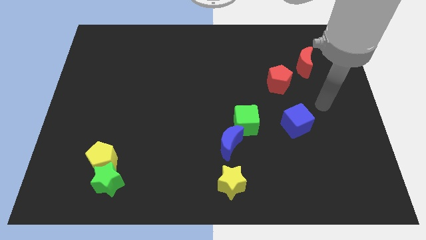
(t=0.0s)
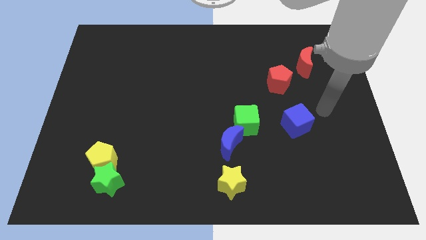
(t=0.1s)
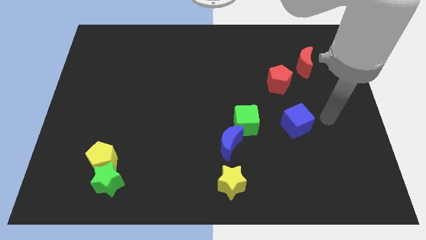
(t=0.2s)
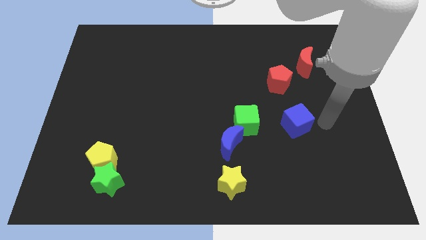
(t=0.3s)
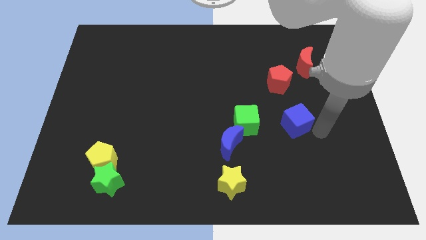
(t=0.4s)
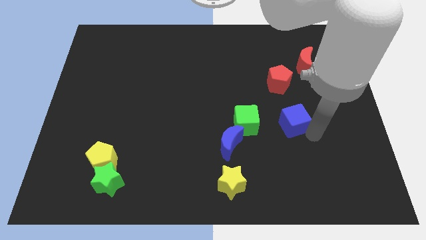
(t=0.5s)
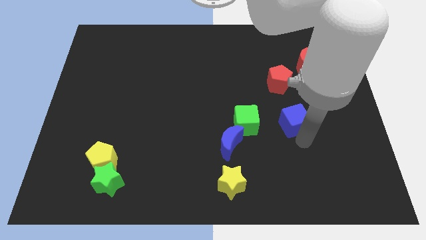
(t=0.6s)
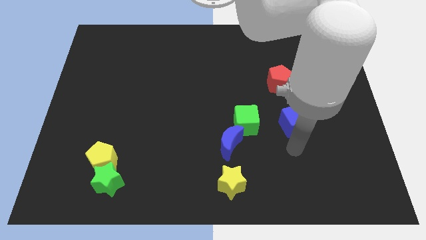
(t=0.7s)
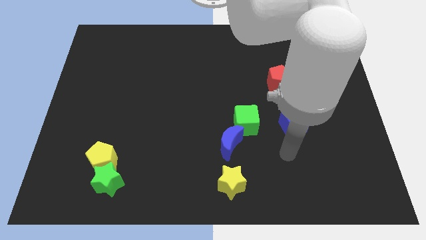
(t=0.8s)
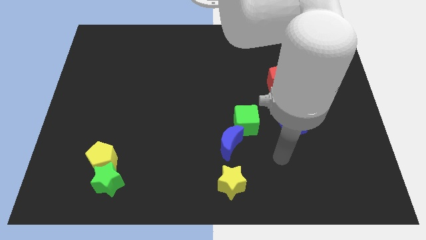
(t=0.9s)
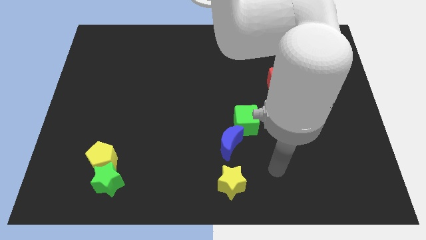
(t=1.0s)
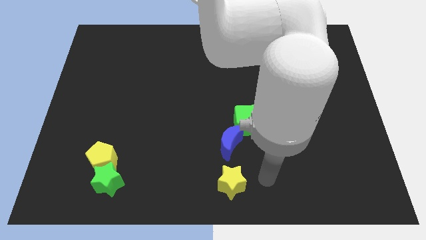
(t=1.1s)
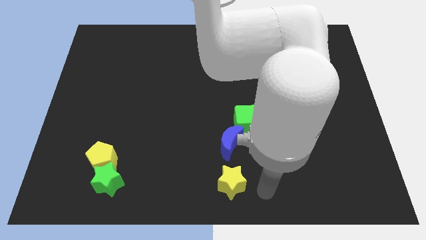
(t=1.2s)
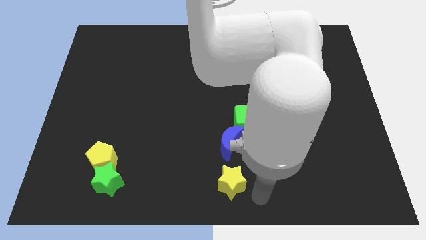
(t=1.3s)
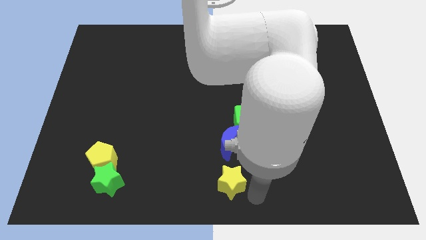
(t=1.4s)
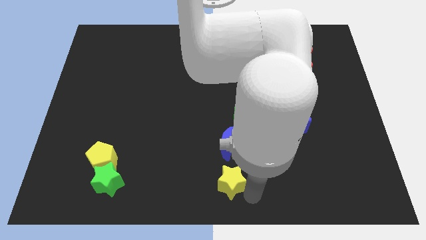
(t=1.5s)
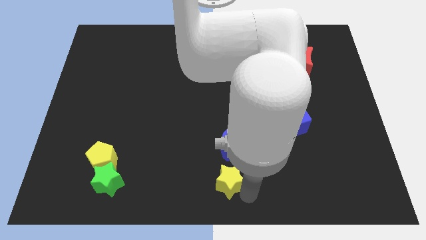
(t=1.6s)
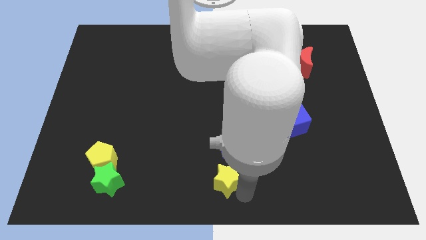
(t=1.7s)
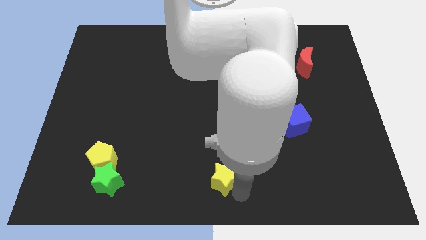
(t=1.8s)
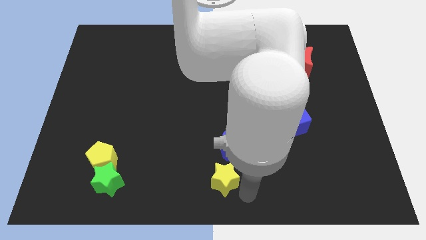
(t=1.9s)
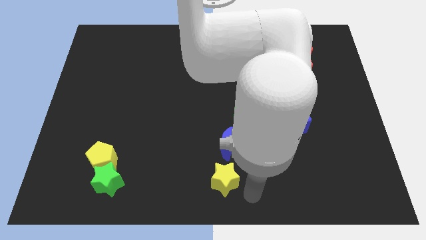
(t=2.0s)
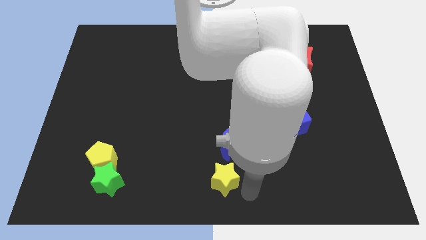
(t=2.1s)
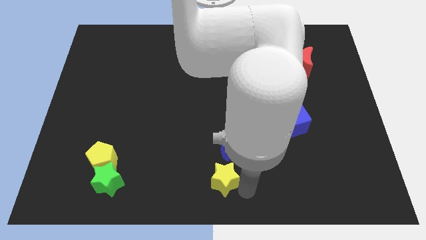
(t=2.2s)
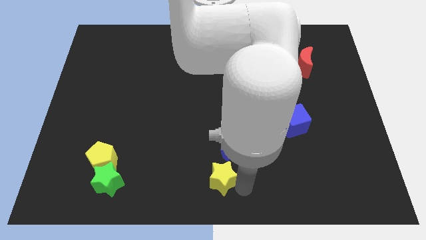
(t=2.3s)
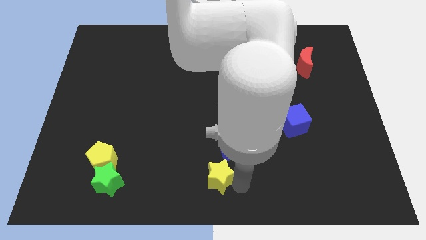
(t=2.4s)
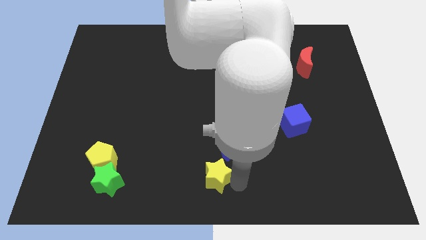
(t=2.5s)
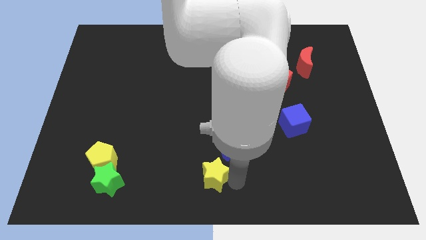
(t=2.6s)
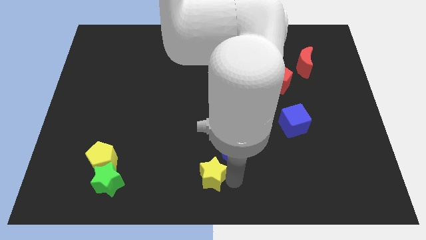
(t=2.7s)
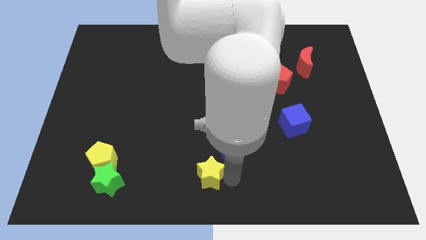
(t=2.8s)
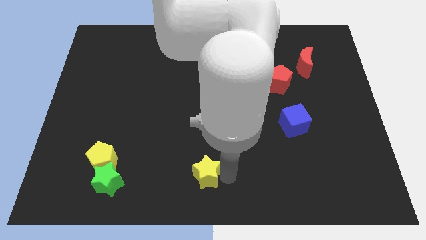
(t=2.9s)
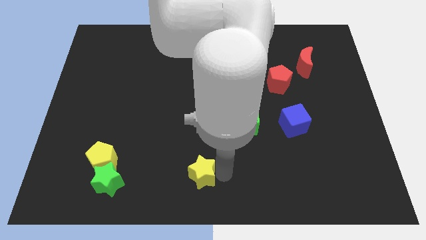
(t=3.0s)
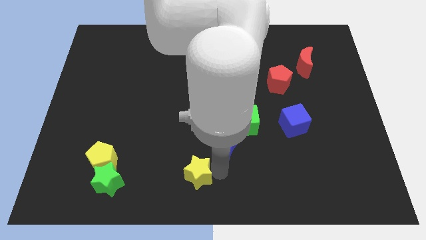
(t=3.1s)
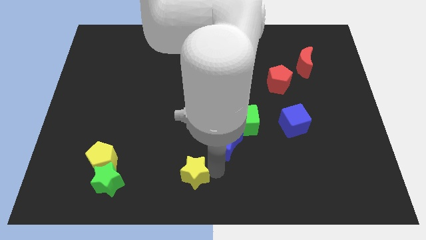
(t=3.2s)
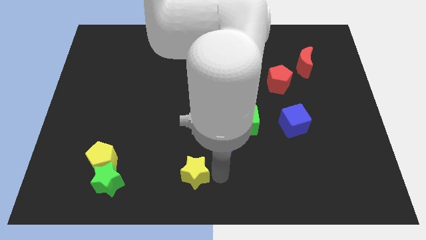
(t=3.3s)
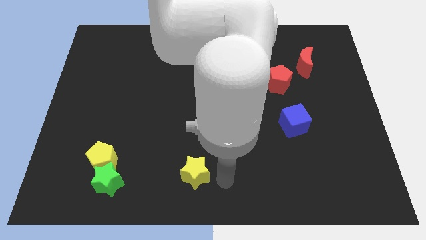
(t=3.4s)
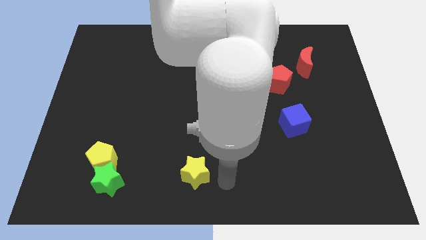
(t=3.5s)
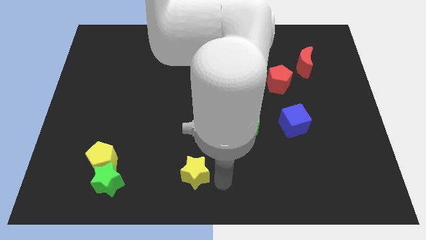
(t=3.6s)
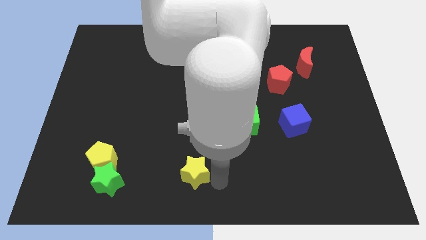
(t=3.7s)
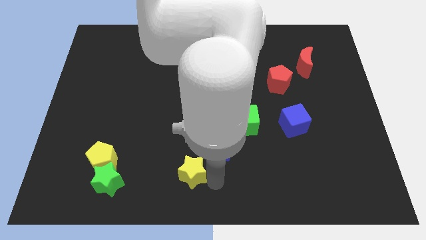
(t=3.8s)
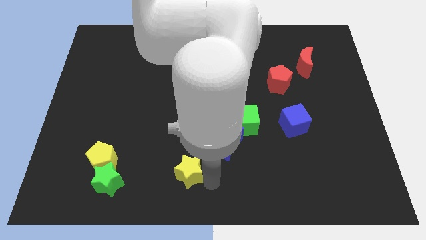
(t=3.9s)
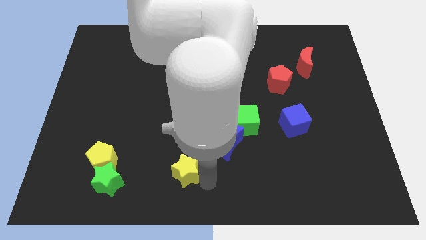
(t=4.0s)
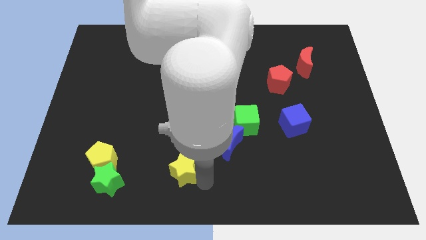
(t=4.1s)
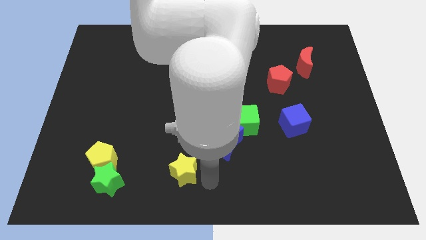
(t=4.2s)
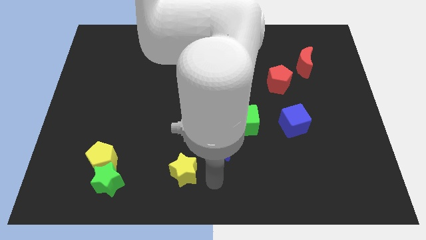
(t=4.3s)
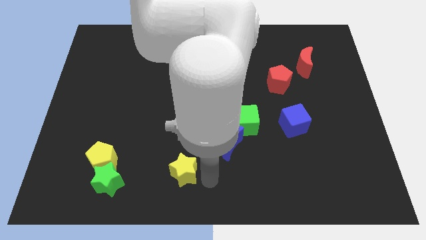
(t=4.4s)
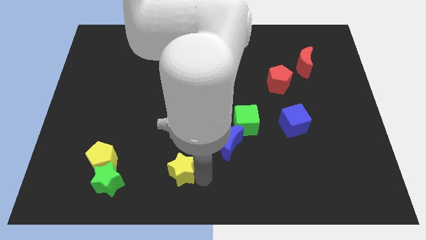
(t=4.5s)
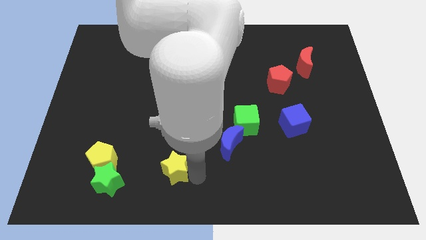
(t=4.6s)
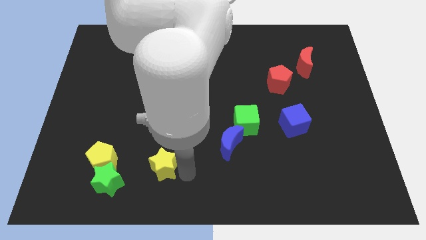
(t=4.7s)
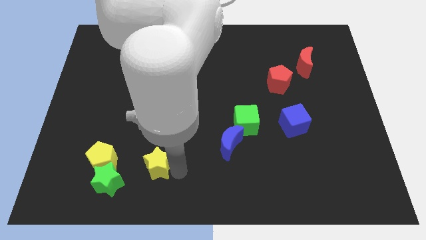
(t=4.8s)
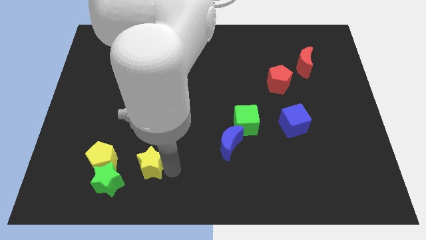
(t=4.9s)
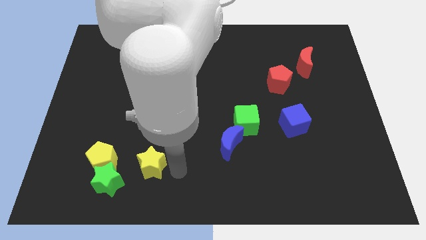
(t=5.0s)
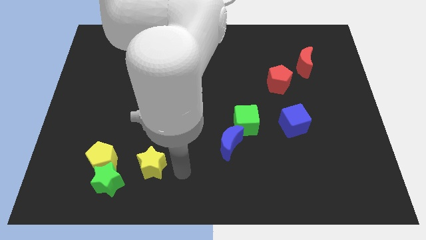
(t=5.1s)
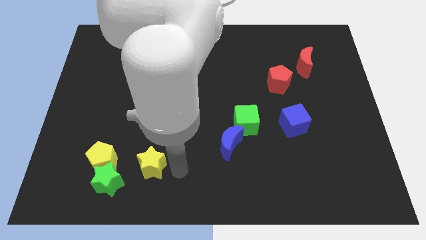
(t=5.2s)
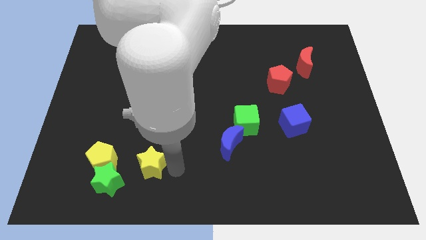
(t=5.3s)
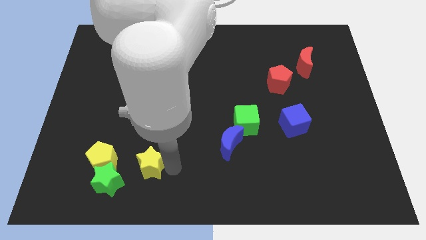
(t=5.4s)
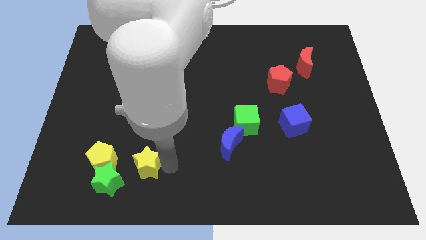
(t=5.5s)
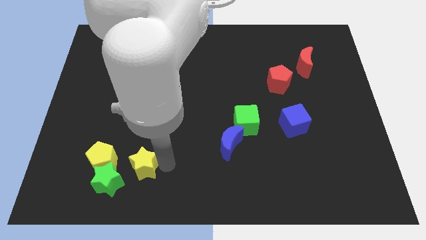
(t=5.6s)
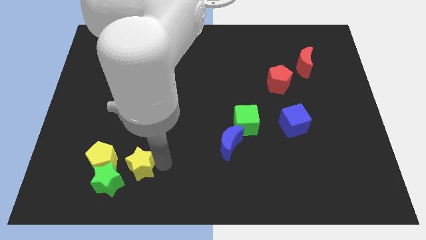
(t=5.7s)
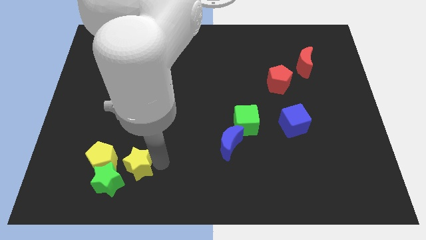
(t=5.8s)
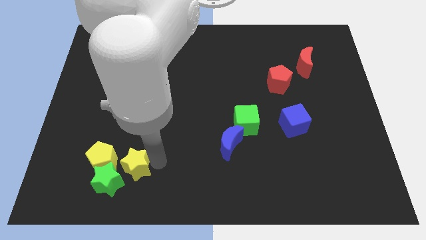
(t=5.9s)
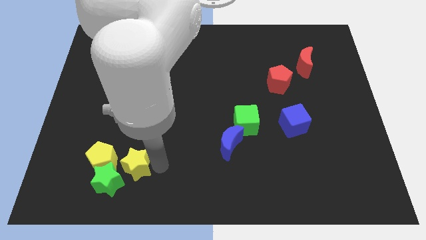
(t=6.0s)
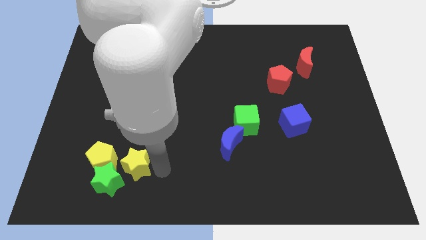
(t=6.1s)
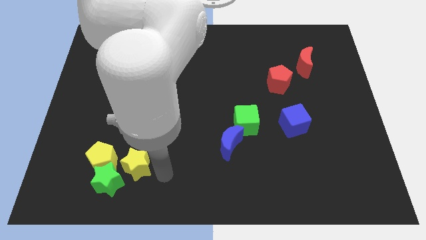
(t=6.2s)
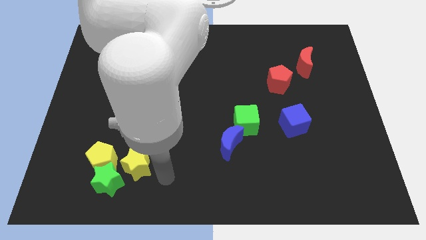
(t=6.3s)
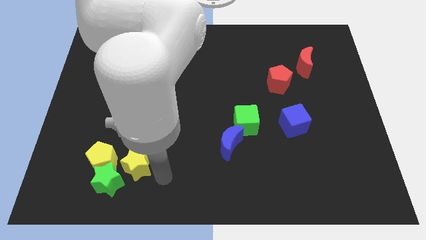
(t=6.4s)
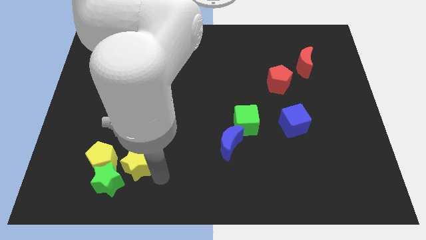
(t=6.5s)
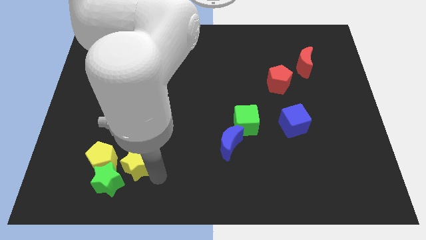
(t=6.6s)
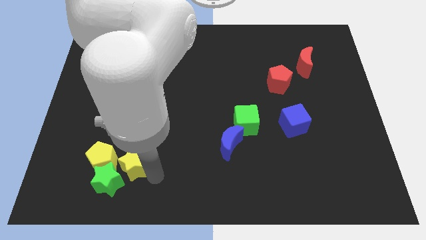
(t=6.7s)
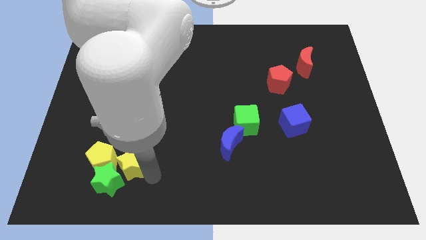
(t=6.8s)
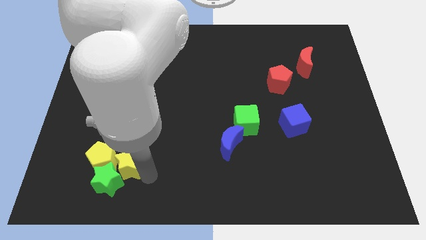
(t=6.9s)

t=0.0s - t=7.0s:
put the yellow star next to the yellow pentagon

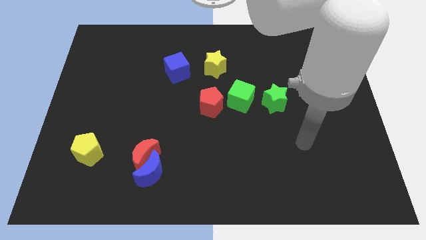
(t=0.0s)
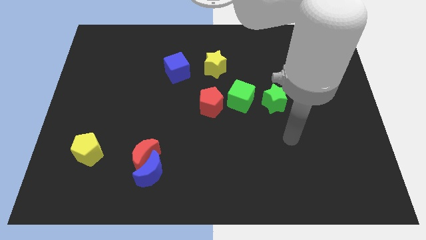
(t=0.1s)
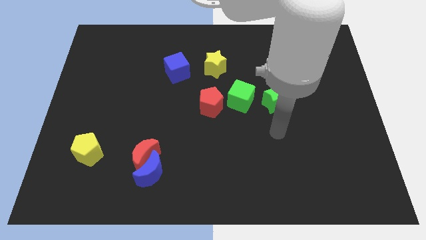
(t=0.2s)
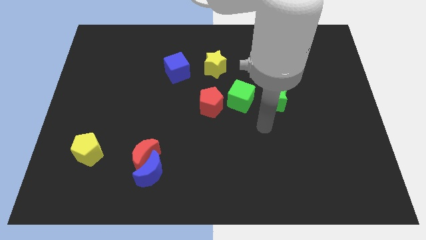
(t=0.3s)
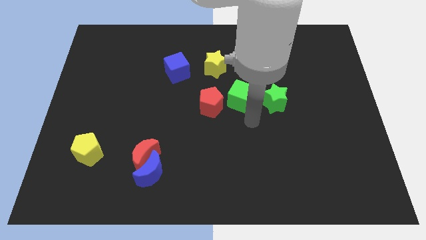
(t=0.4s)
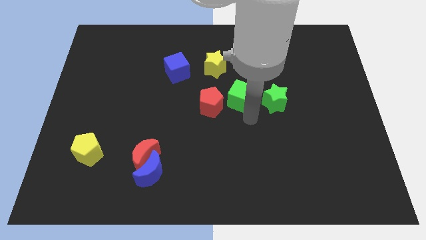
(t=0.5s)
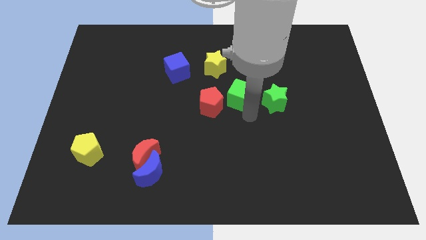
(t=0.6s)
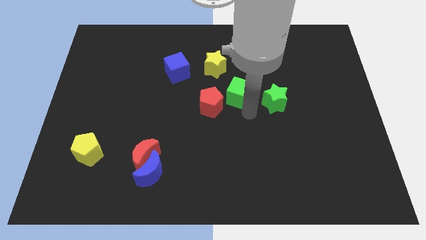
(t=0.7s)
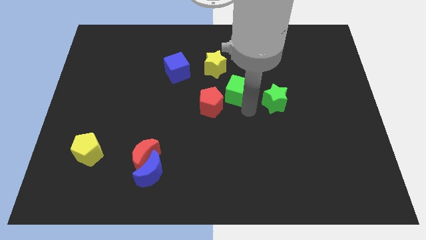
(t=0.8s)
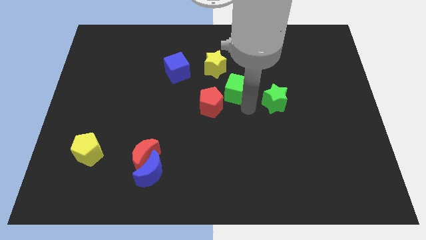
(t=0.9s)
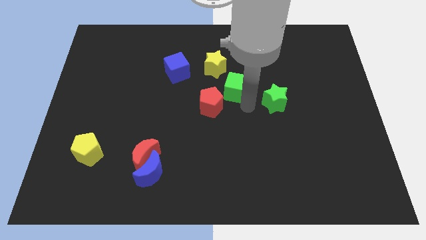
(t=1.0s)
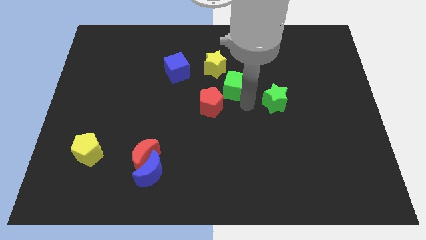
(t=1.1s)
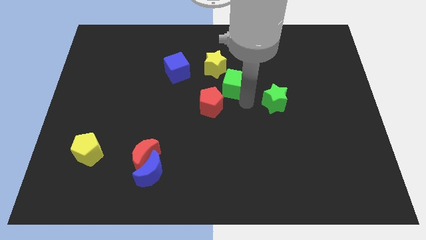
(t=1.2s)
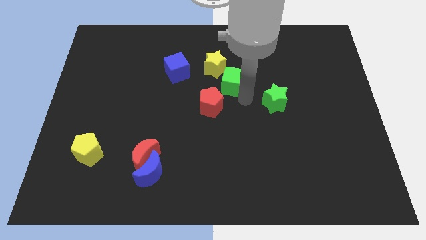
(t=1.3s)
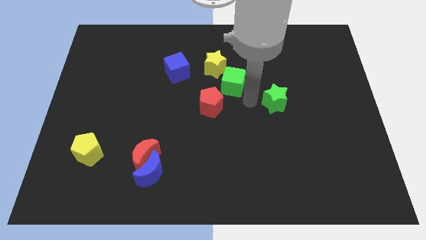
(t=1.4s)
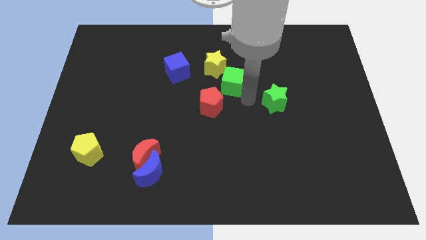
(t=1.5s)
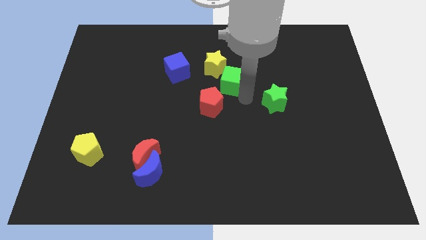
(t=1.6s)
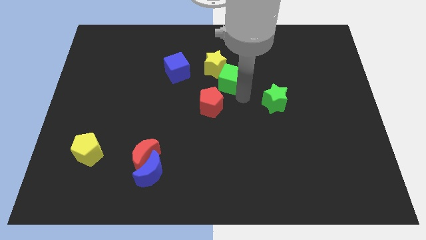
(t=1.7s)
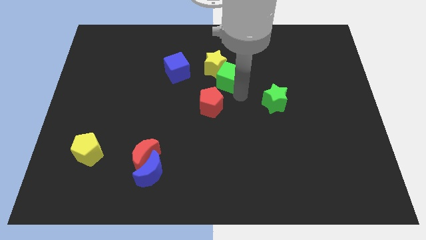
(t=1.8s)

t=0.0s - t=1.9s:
push the green cube close to the yellow star
